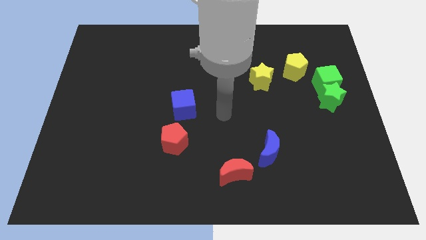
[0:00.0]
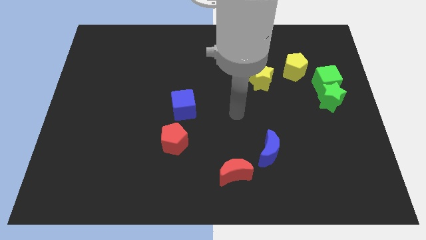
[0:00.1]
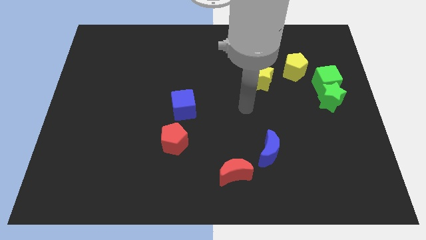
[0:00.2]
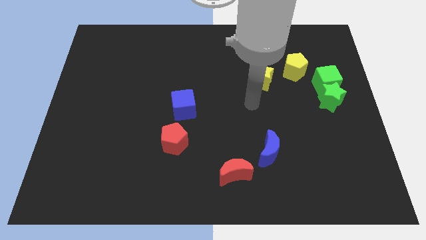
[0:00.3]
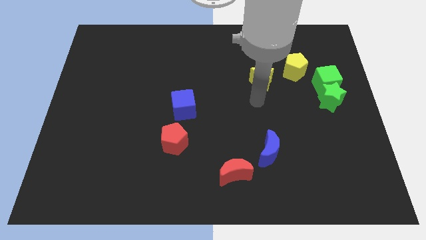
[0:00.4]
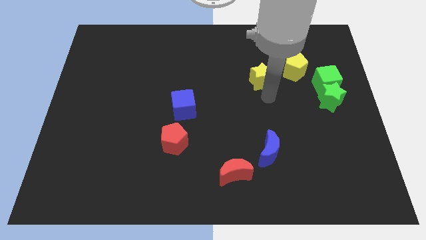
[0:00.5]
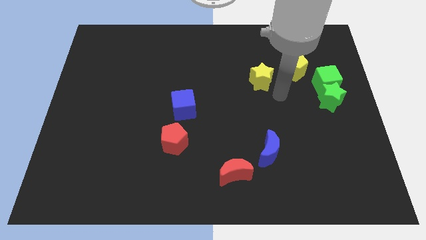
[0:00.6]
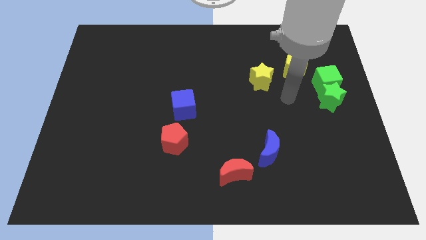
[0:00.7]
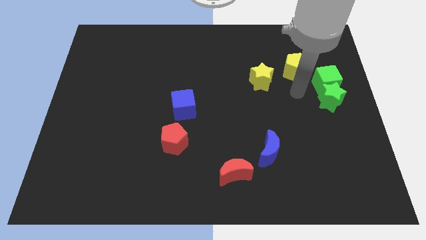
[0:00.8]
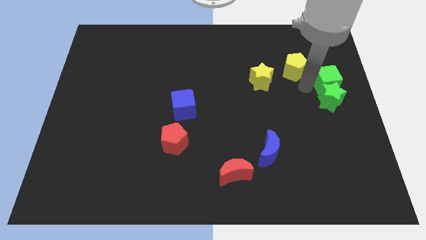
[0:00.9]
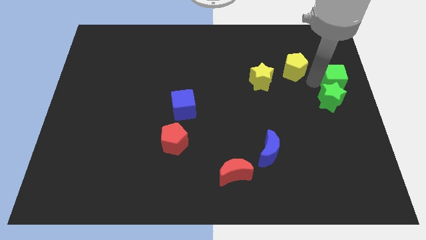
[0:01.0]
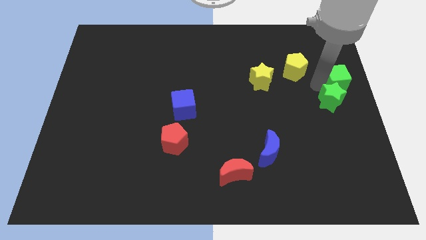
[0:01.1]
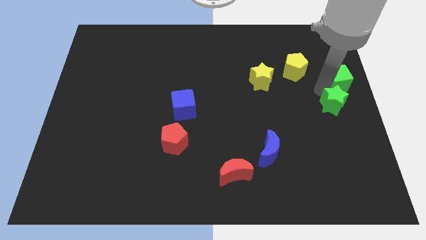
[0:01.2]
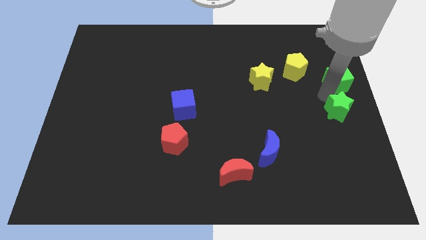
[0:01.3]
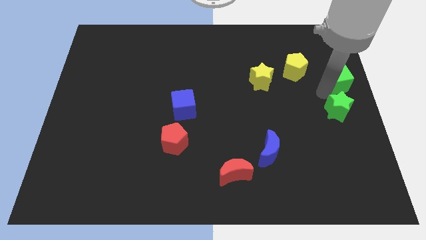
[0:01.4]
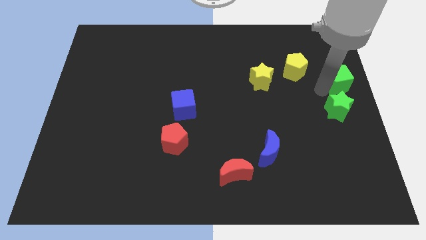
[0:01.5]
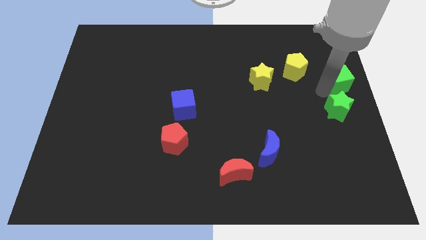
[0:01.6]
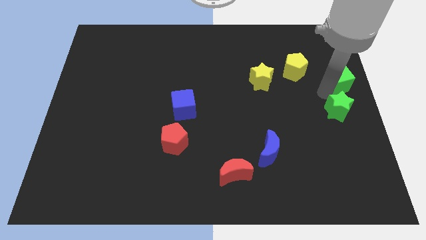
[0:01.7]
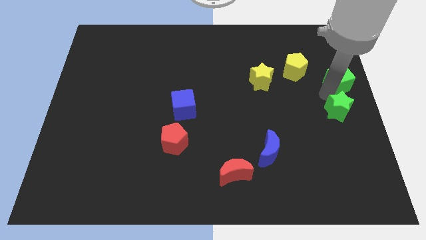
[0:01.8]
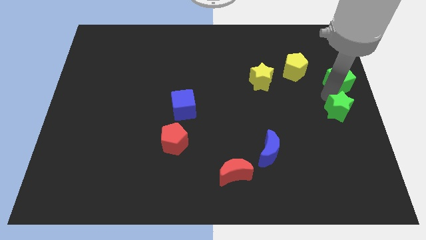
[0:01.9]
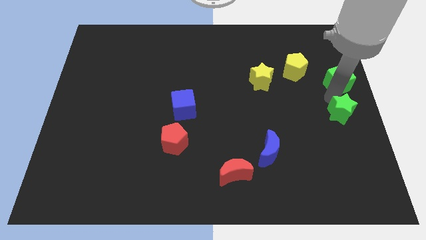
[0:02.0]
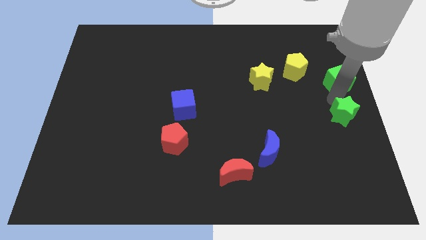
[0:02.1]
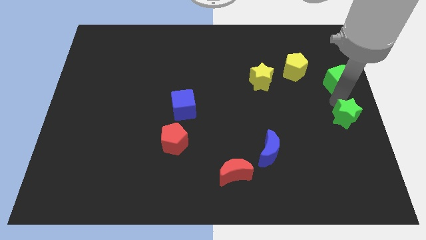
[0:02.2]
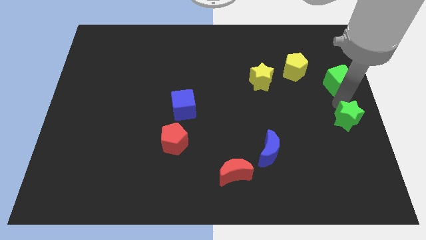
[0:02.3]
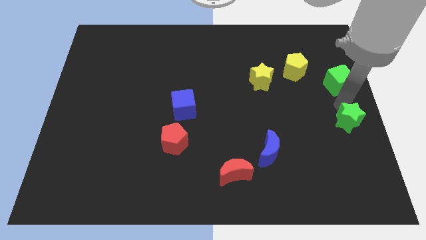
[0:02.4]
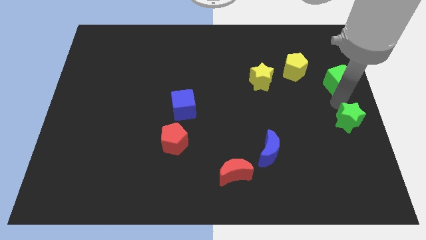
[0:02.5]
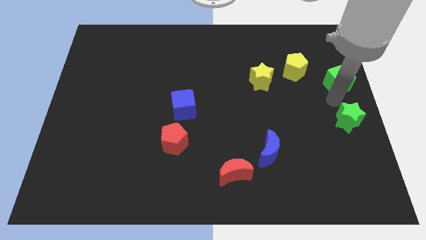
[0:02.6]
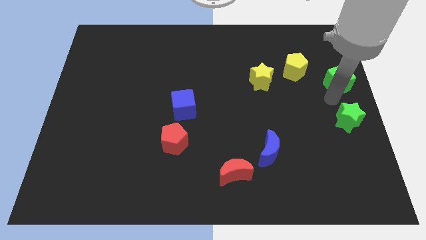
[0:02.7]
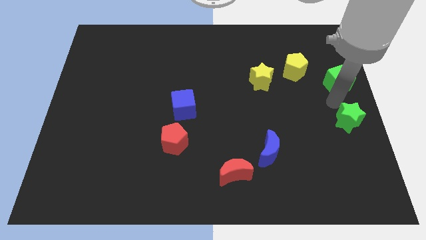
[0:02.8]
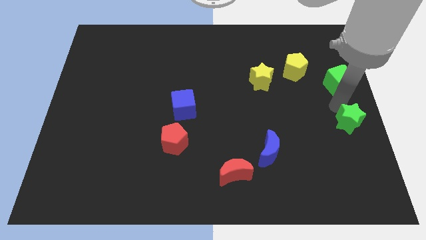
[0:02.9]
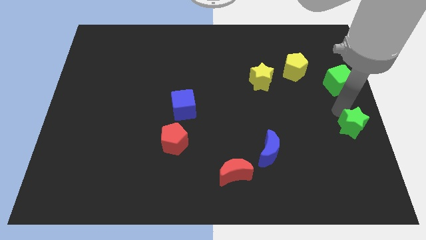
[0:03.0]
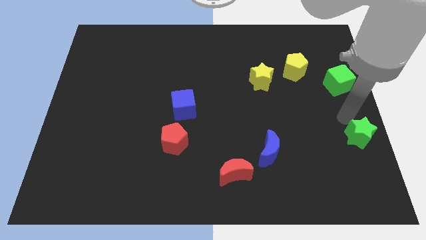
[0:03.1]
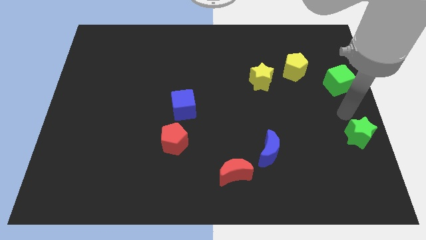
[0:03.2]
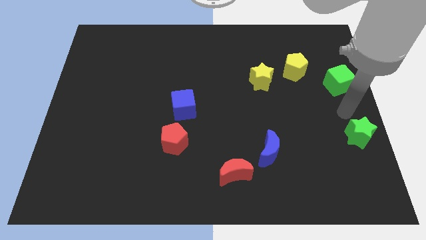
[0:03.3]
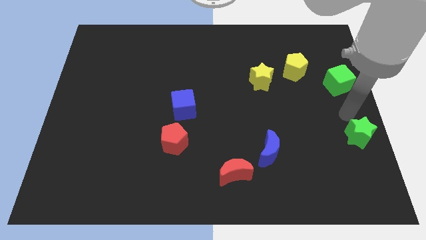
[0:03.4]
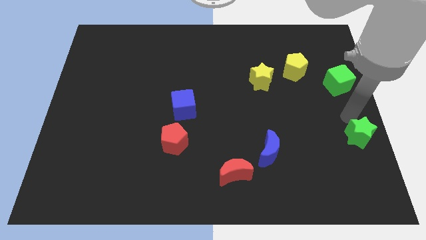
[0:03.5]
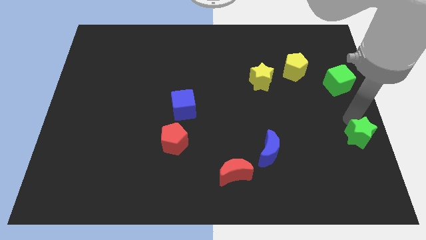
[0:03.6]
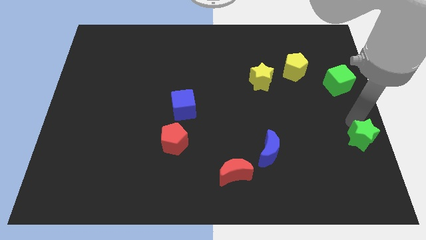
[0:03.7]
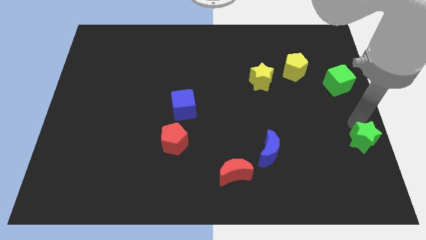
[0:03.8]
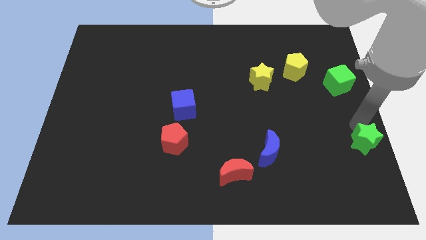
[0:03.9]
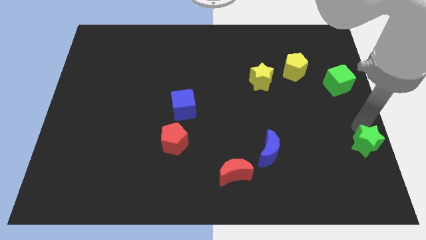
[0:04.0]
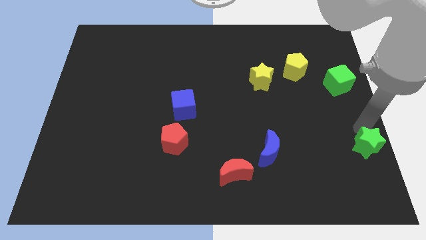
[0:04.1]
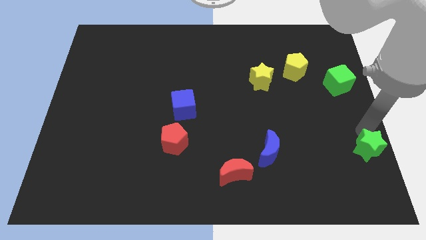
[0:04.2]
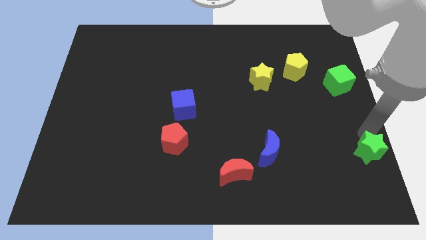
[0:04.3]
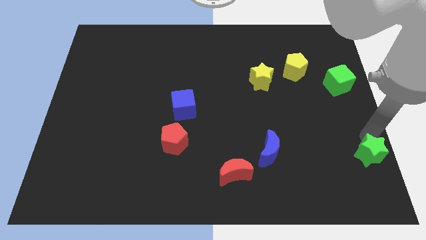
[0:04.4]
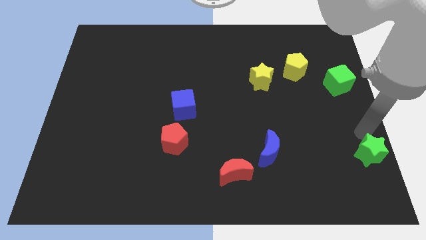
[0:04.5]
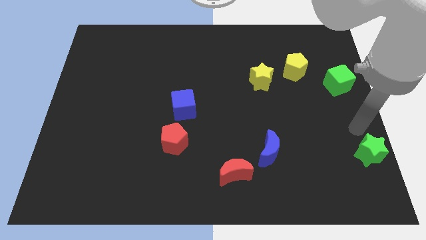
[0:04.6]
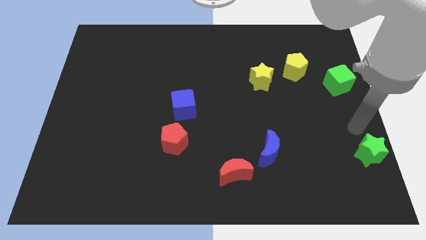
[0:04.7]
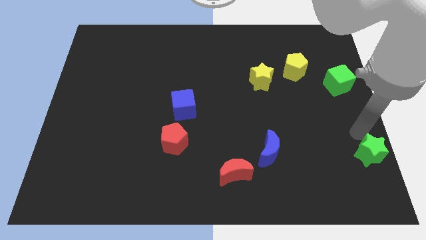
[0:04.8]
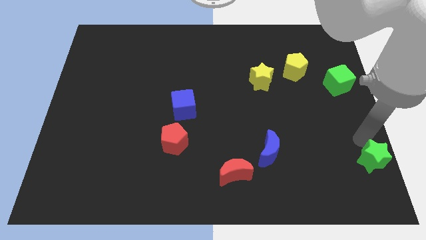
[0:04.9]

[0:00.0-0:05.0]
slide the green star to the bottom right

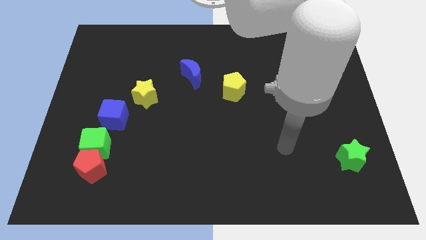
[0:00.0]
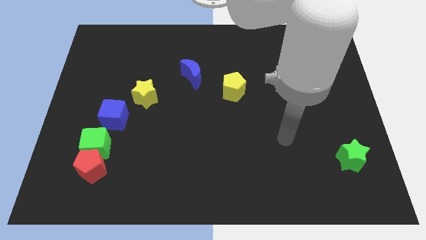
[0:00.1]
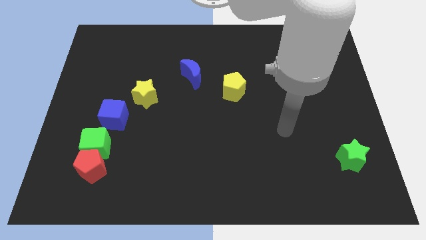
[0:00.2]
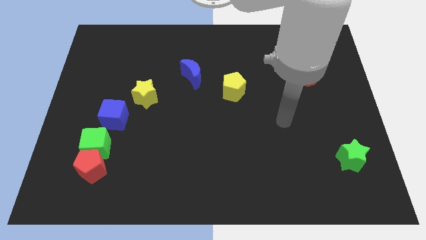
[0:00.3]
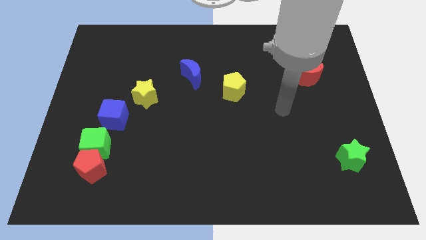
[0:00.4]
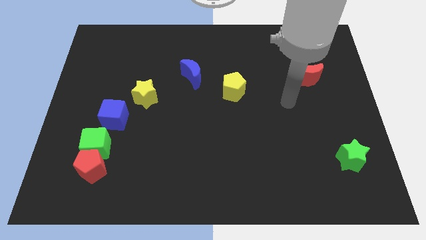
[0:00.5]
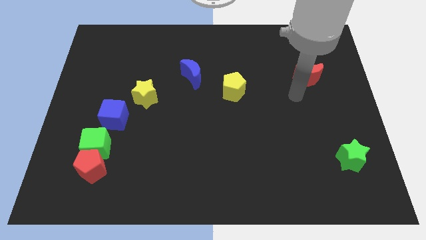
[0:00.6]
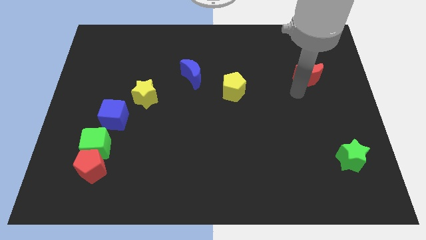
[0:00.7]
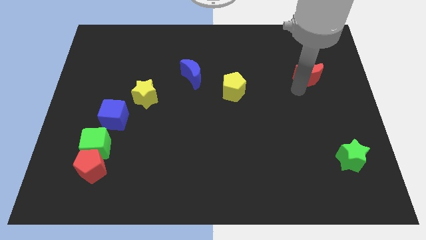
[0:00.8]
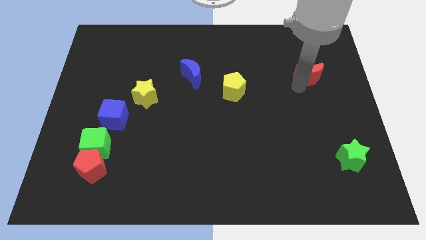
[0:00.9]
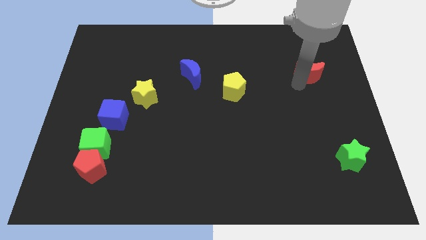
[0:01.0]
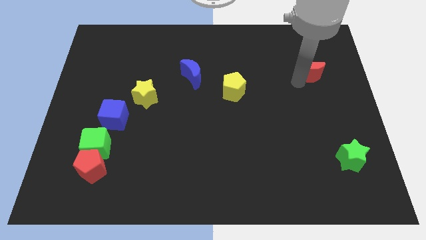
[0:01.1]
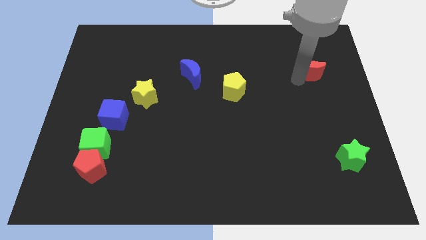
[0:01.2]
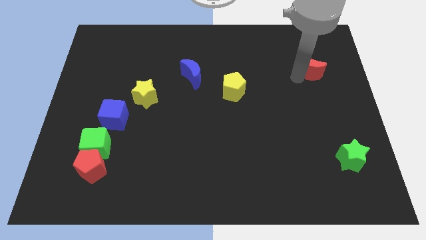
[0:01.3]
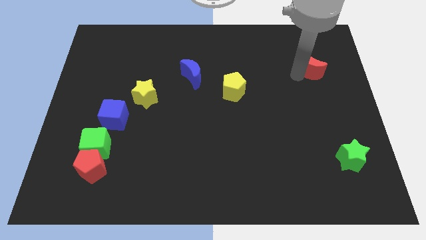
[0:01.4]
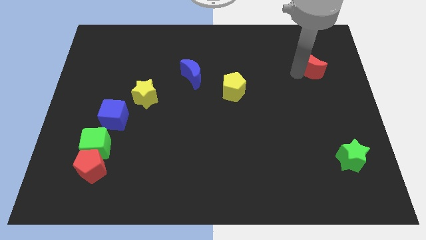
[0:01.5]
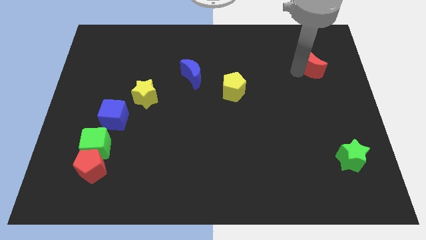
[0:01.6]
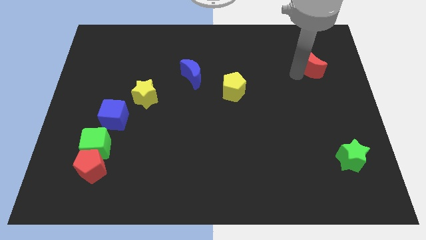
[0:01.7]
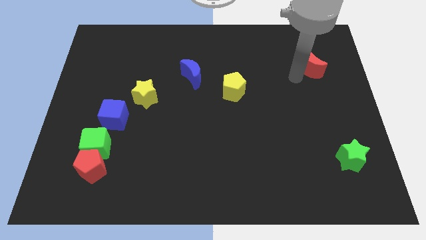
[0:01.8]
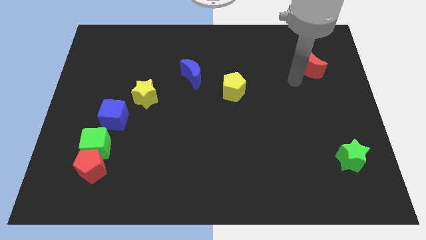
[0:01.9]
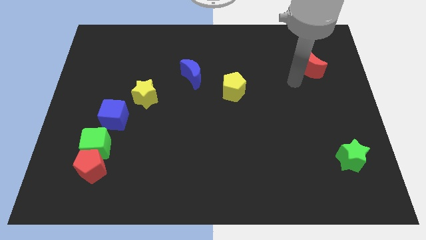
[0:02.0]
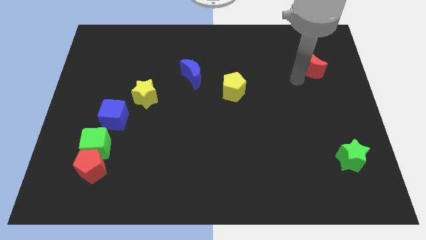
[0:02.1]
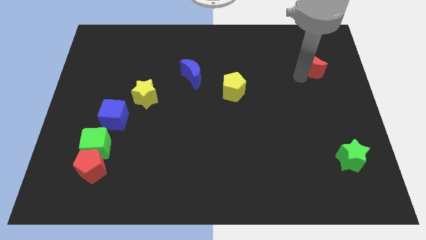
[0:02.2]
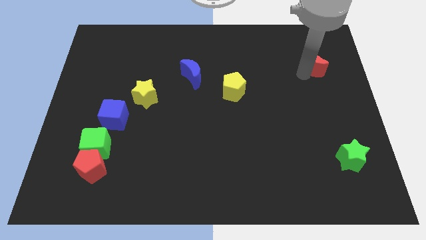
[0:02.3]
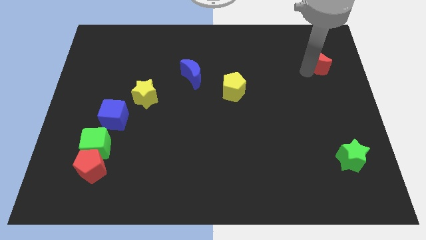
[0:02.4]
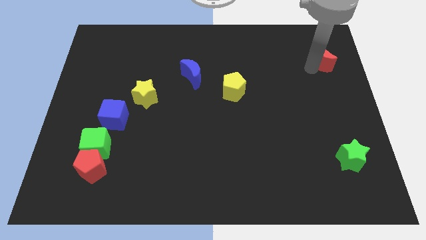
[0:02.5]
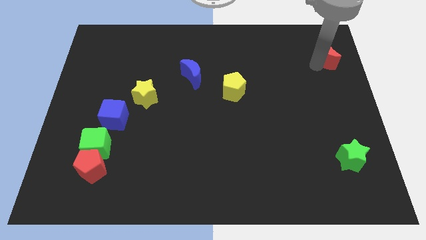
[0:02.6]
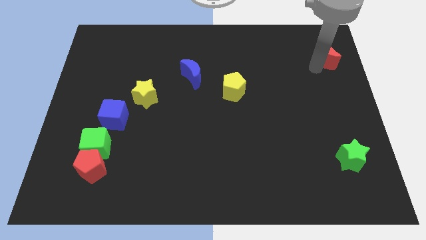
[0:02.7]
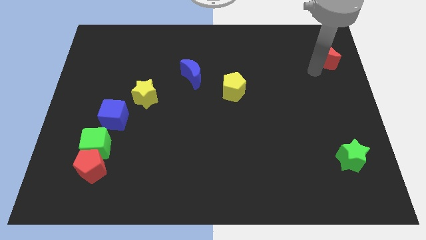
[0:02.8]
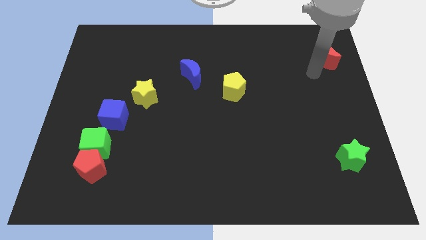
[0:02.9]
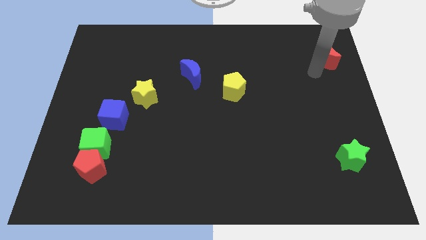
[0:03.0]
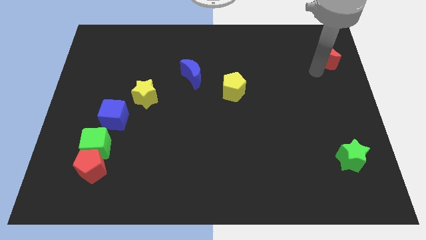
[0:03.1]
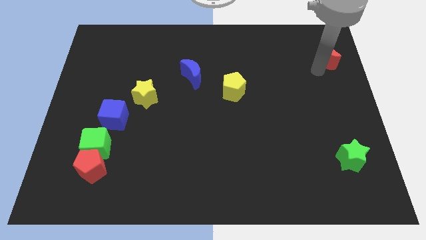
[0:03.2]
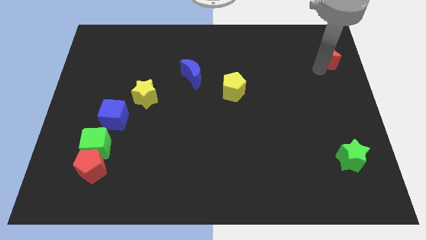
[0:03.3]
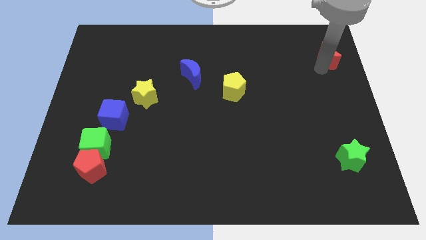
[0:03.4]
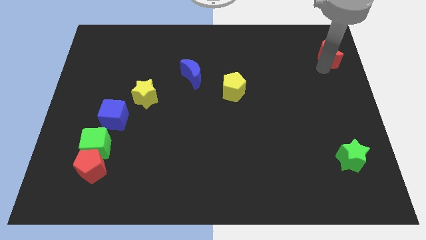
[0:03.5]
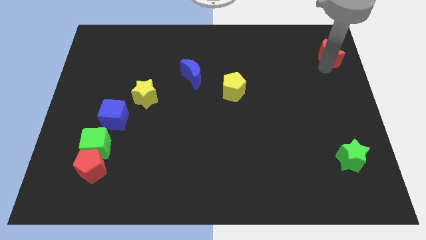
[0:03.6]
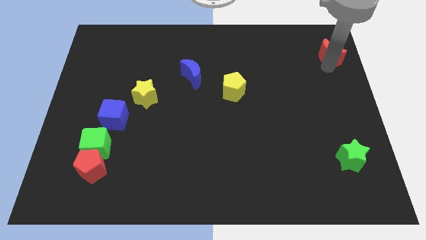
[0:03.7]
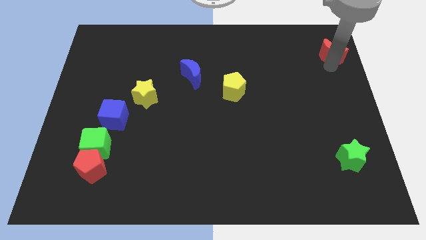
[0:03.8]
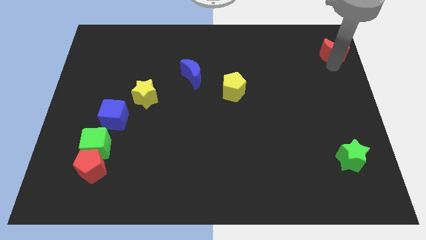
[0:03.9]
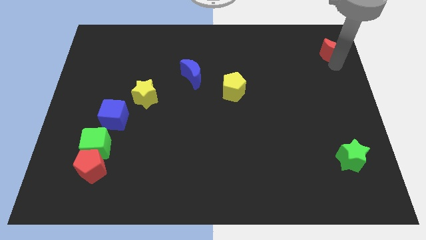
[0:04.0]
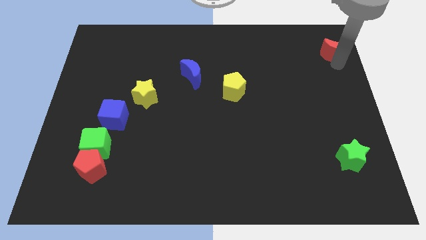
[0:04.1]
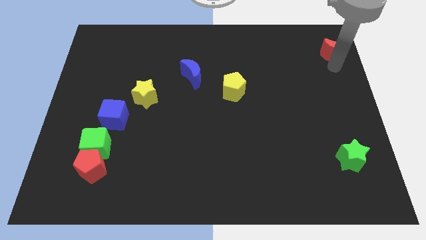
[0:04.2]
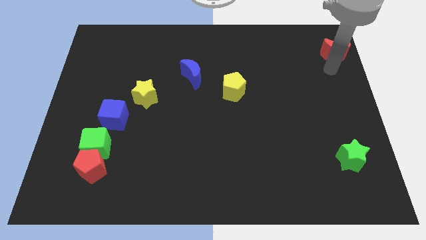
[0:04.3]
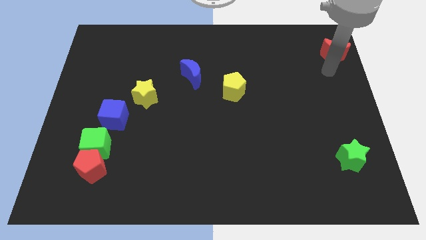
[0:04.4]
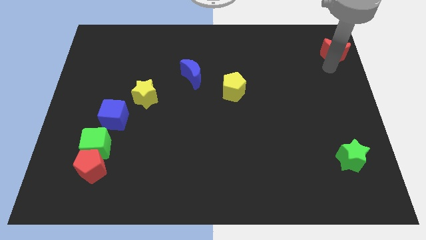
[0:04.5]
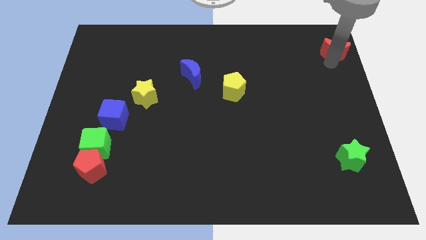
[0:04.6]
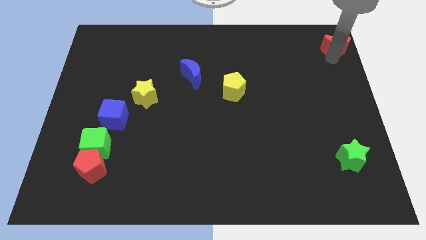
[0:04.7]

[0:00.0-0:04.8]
move the red moon to the top right
